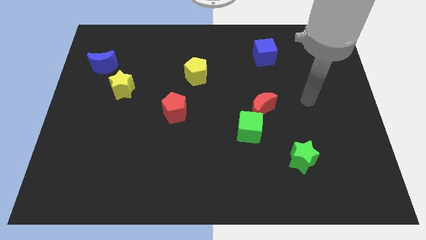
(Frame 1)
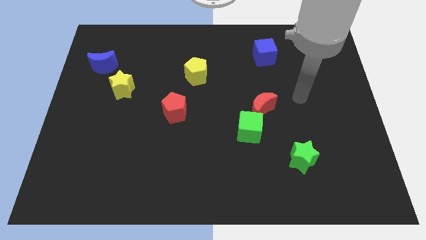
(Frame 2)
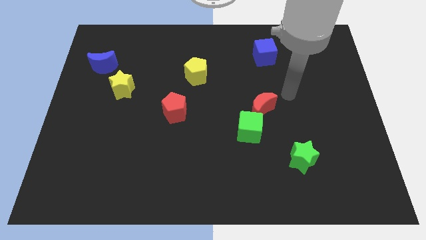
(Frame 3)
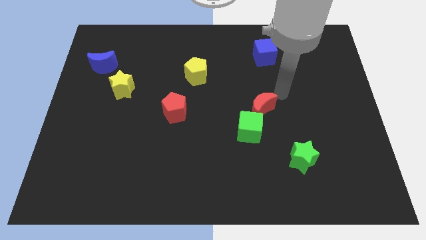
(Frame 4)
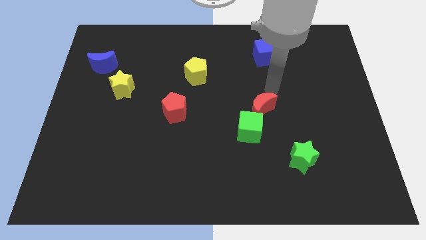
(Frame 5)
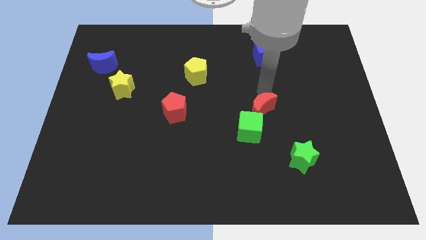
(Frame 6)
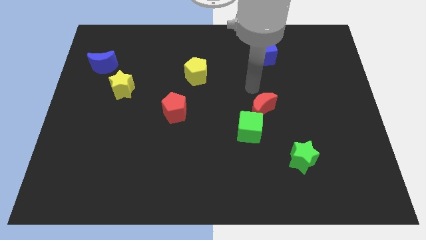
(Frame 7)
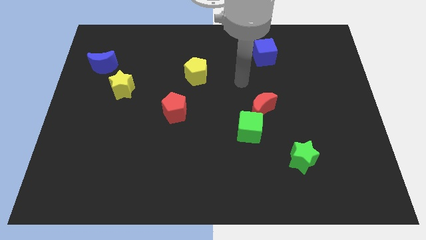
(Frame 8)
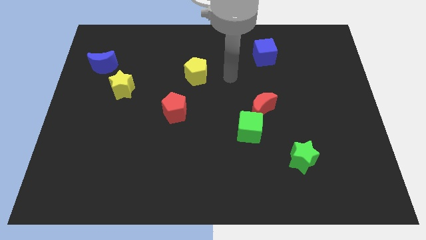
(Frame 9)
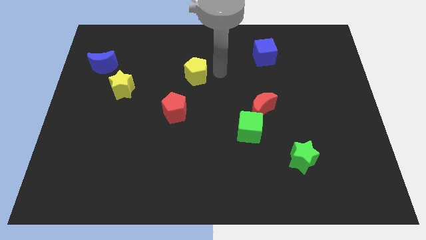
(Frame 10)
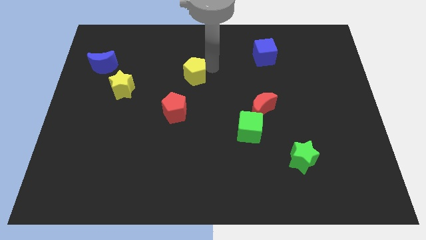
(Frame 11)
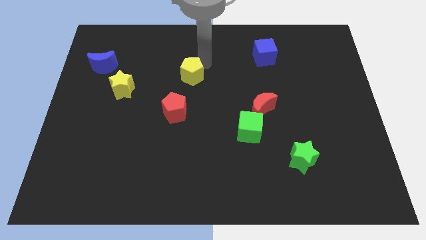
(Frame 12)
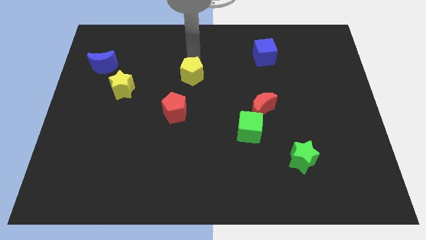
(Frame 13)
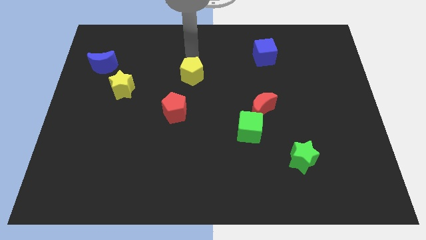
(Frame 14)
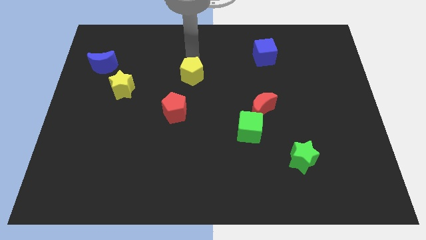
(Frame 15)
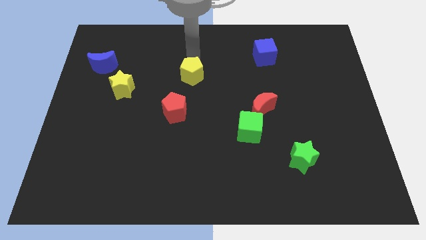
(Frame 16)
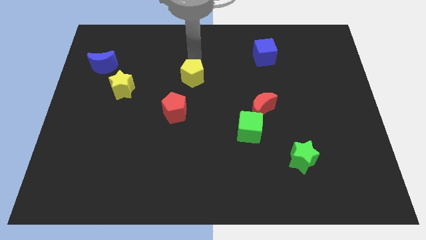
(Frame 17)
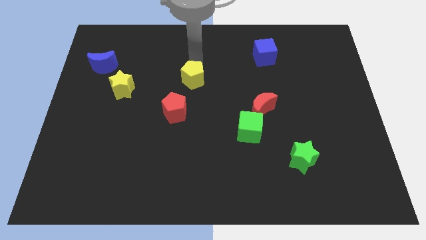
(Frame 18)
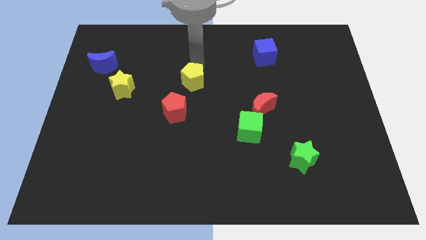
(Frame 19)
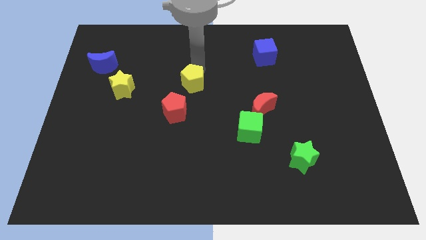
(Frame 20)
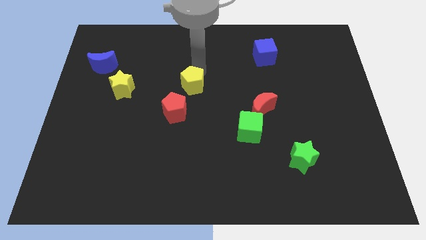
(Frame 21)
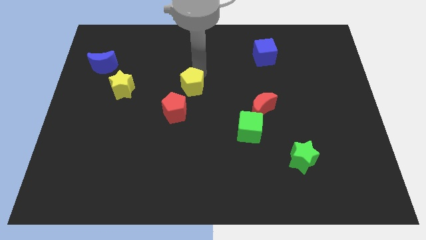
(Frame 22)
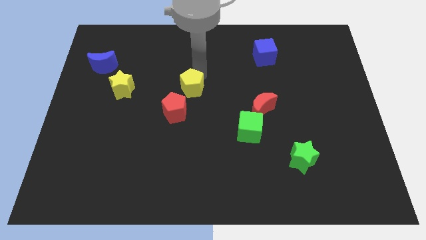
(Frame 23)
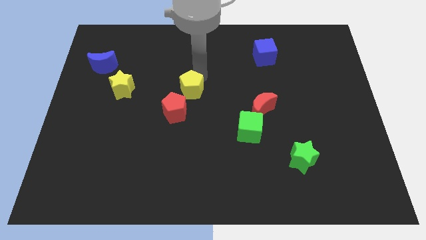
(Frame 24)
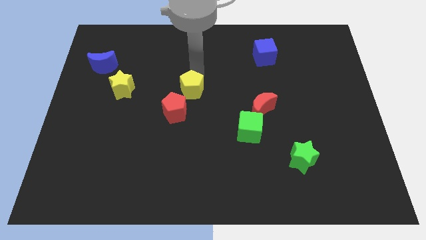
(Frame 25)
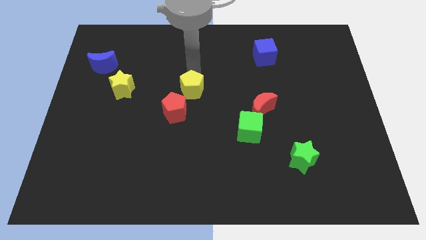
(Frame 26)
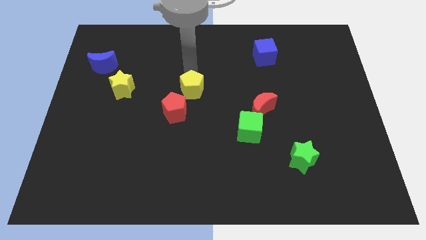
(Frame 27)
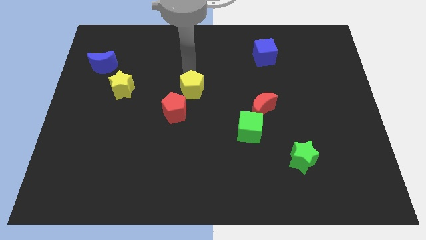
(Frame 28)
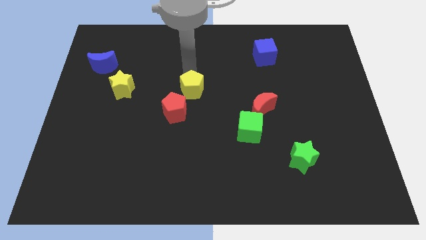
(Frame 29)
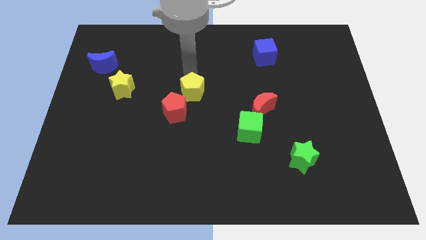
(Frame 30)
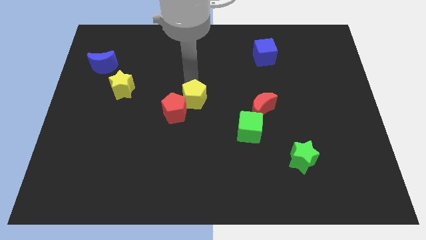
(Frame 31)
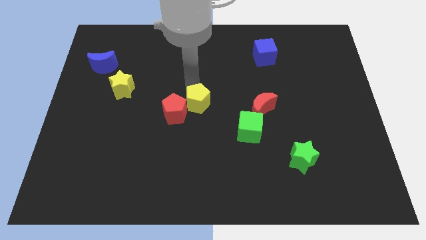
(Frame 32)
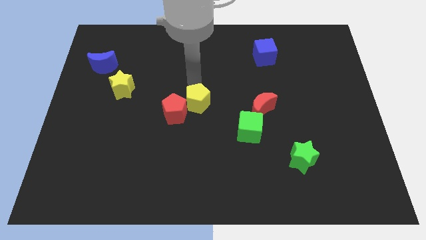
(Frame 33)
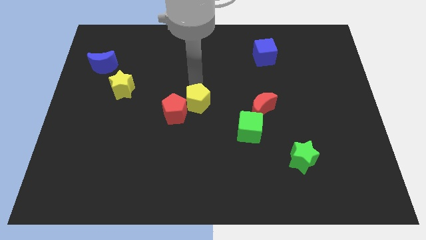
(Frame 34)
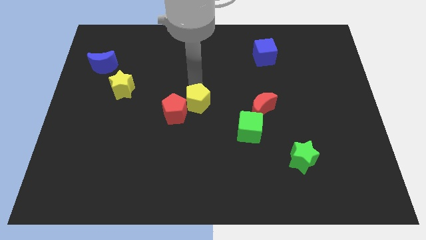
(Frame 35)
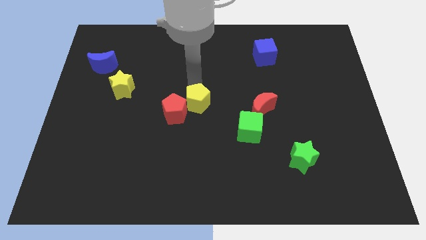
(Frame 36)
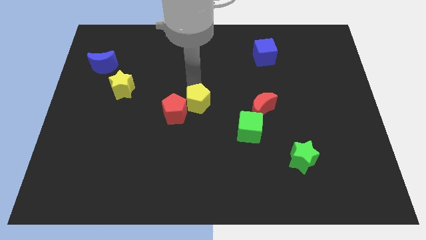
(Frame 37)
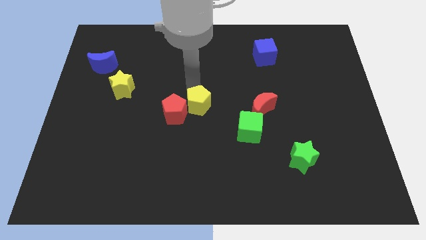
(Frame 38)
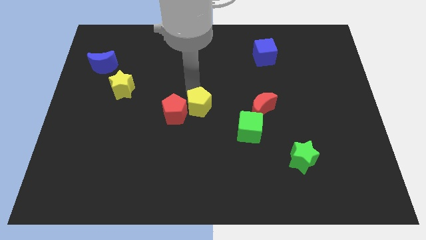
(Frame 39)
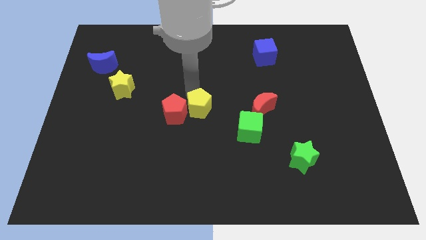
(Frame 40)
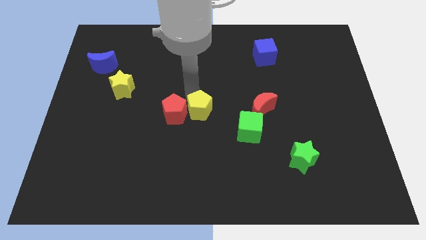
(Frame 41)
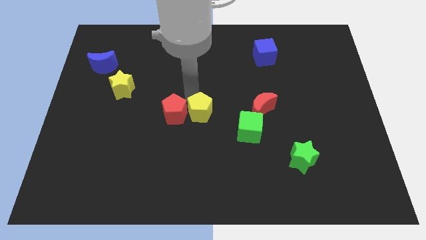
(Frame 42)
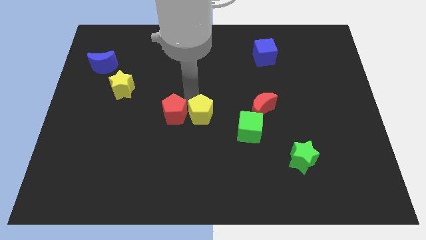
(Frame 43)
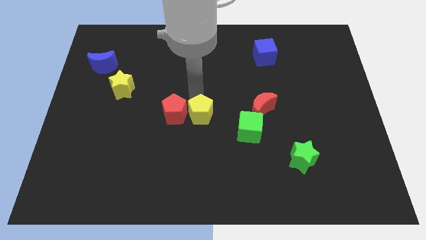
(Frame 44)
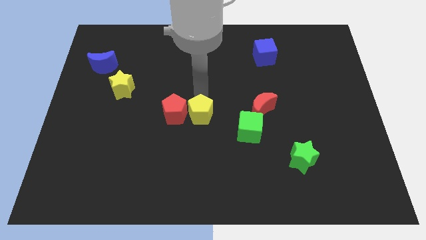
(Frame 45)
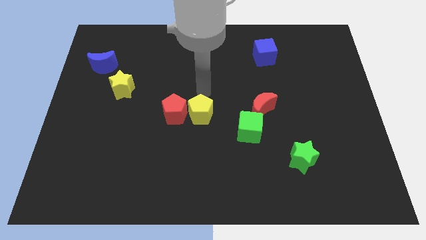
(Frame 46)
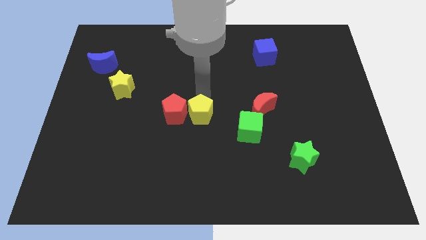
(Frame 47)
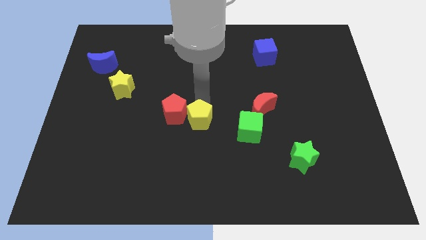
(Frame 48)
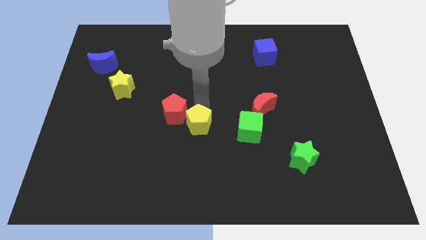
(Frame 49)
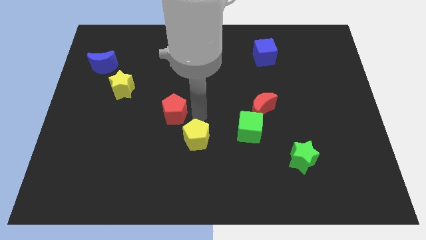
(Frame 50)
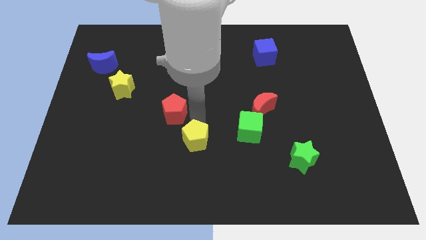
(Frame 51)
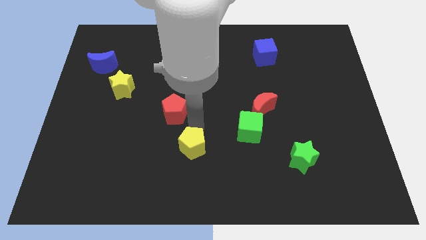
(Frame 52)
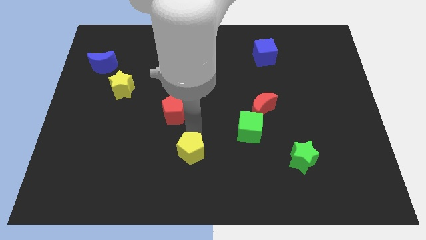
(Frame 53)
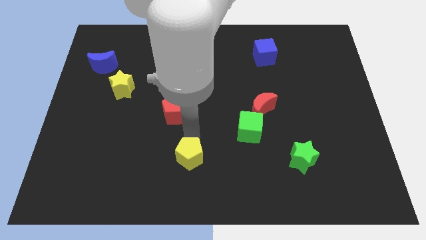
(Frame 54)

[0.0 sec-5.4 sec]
slide the yellow pentagon to the bottom side

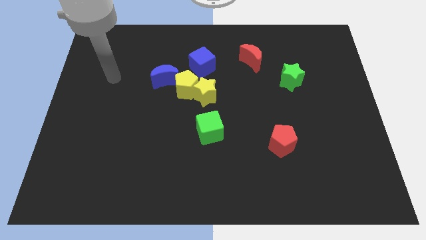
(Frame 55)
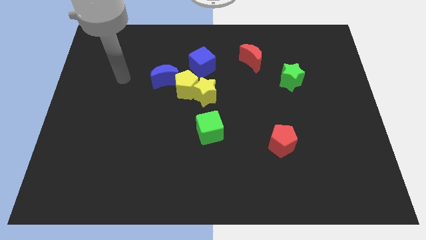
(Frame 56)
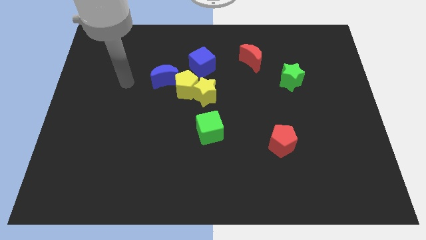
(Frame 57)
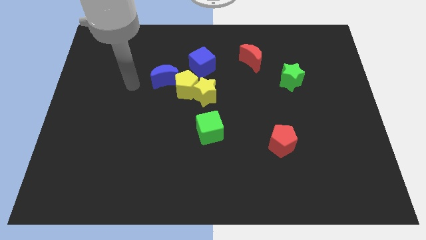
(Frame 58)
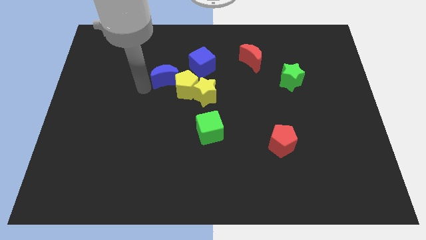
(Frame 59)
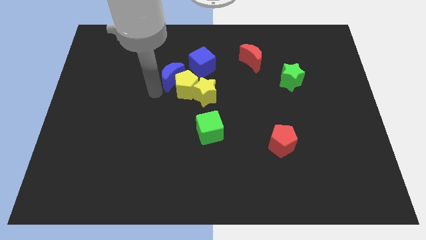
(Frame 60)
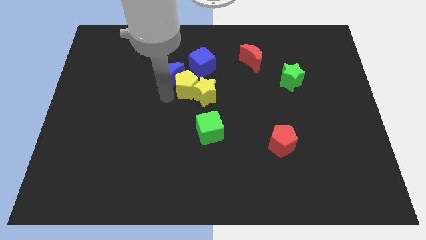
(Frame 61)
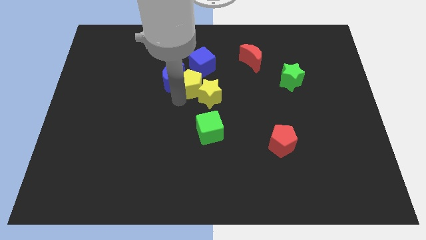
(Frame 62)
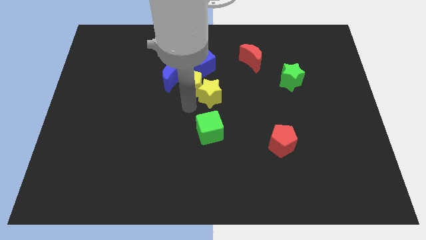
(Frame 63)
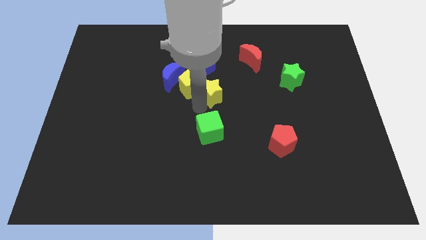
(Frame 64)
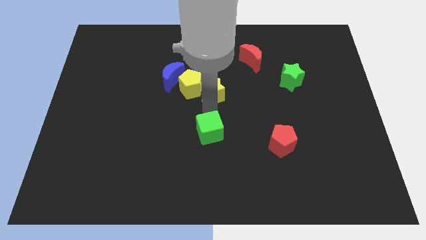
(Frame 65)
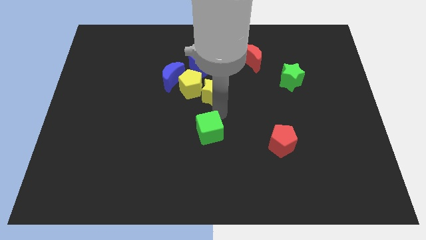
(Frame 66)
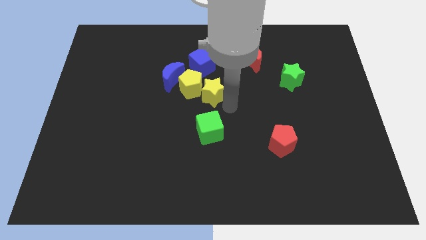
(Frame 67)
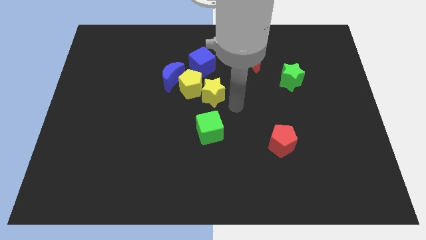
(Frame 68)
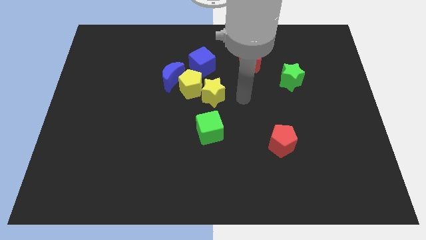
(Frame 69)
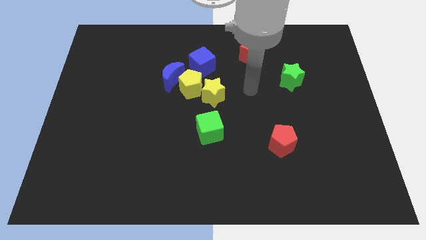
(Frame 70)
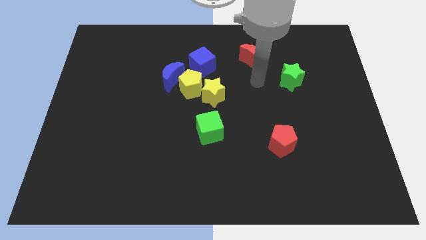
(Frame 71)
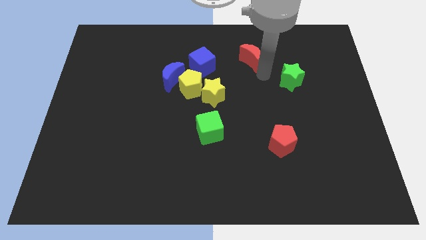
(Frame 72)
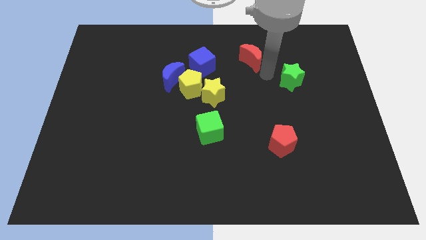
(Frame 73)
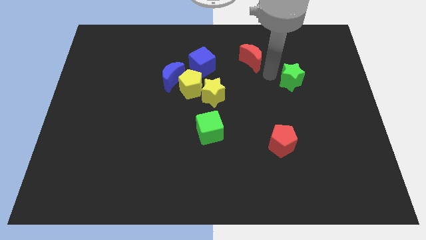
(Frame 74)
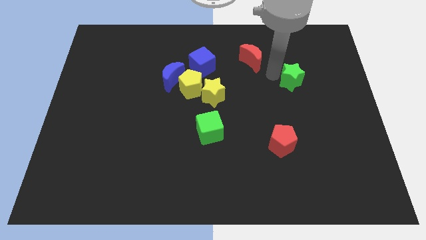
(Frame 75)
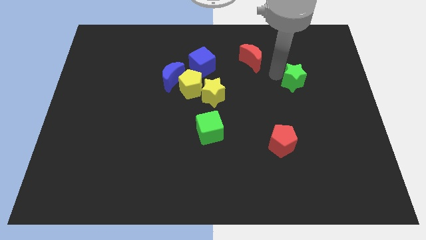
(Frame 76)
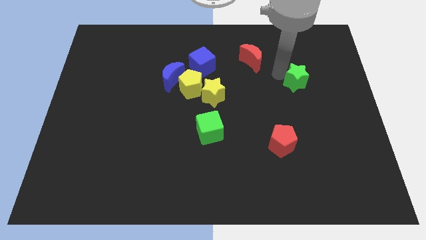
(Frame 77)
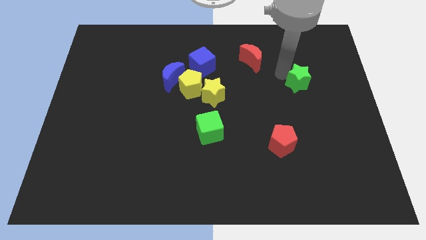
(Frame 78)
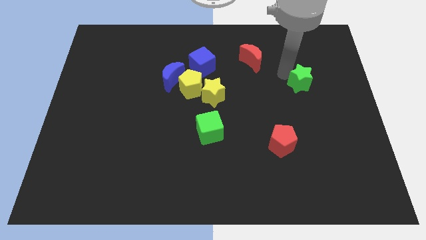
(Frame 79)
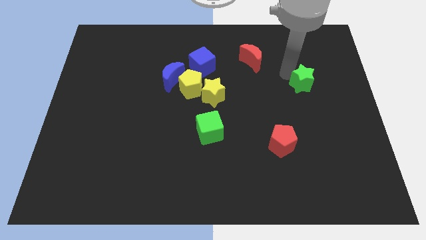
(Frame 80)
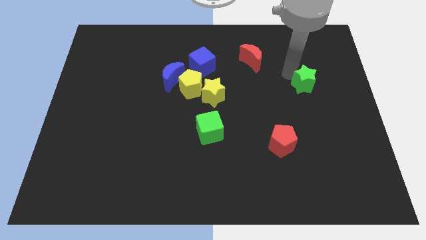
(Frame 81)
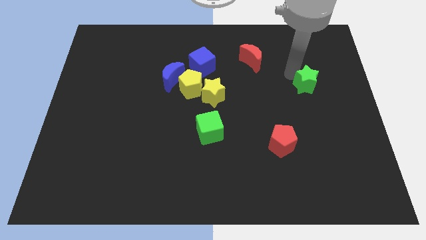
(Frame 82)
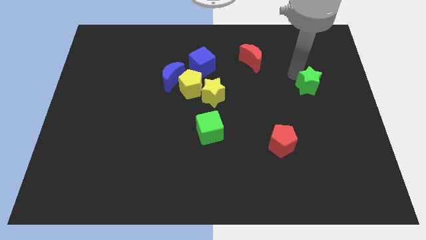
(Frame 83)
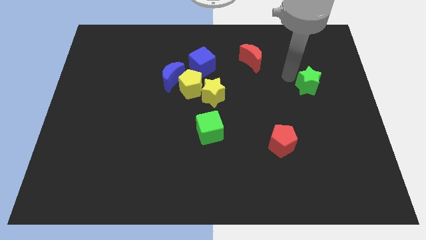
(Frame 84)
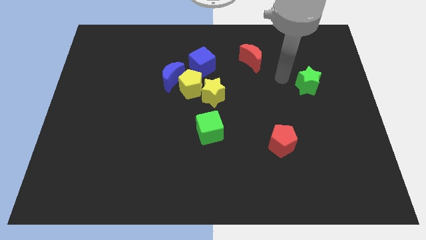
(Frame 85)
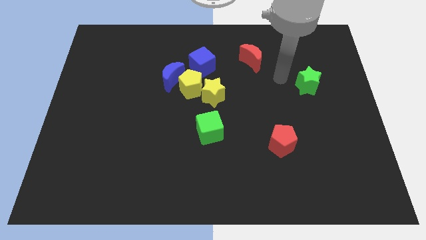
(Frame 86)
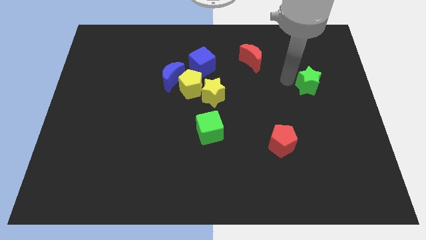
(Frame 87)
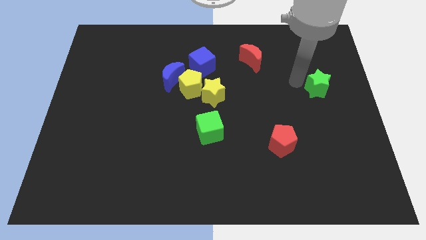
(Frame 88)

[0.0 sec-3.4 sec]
put the green star to the right side of the board
